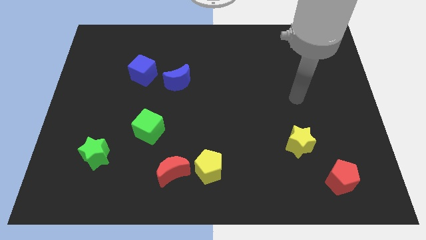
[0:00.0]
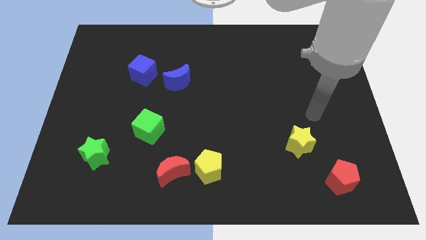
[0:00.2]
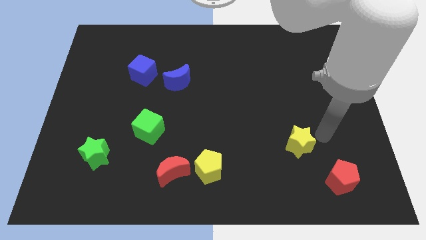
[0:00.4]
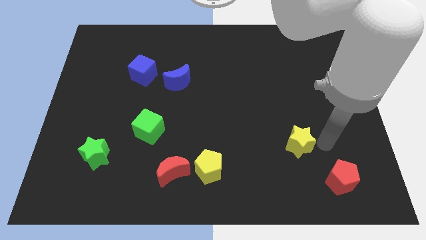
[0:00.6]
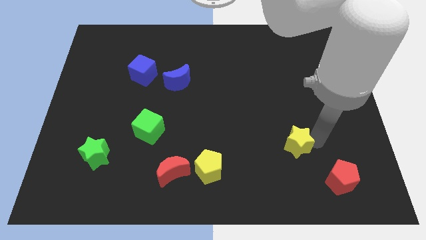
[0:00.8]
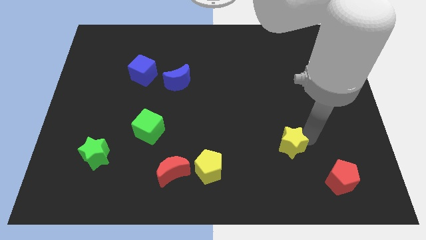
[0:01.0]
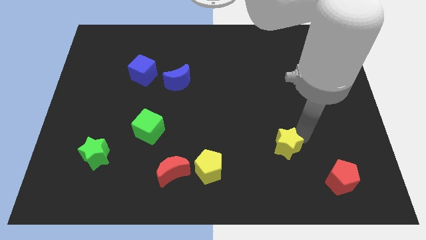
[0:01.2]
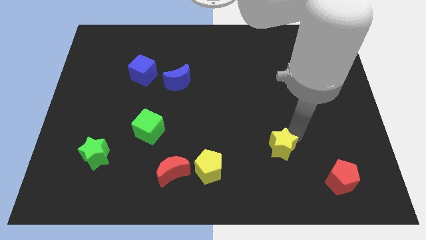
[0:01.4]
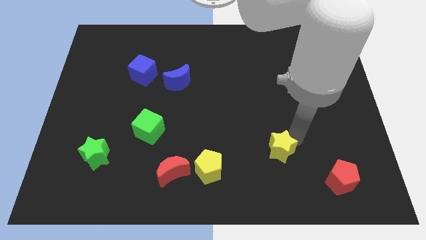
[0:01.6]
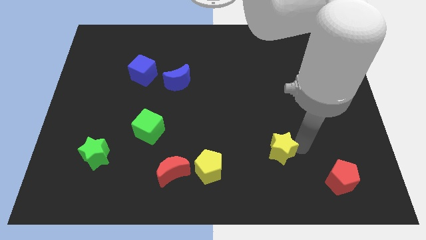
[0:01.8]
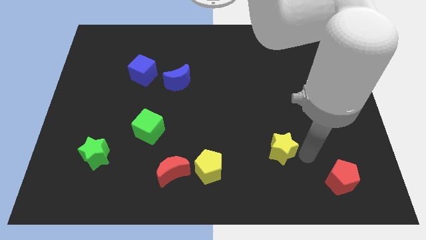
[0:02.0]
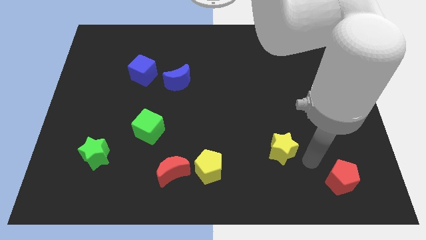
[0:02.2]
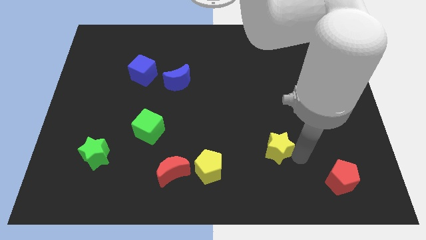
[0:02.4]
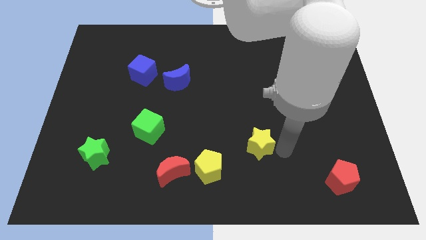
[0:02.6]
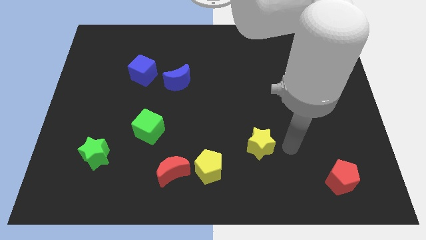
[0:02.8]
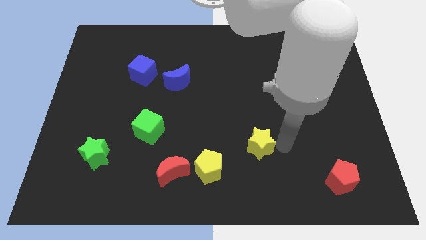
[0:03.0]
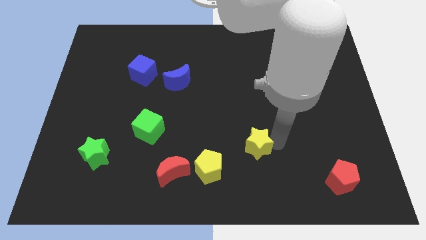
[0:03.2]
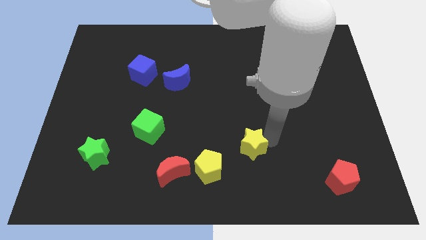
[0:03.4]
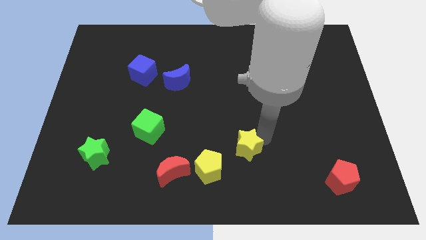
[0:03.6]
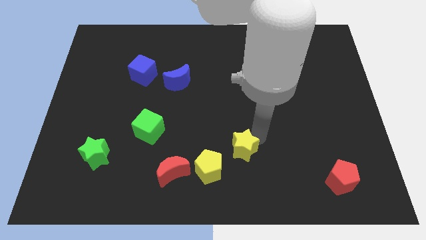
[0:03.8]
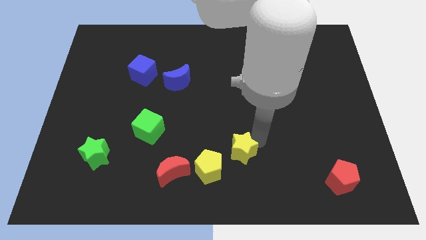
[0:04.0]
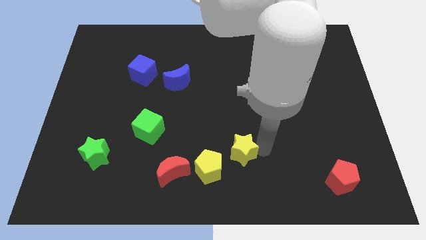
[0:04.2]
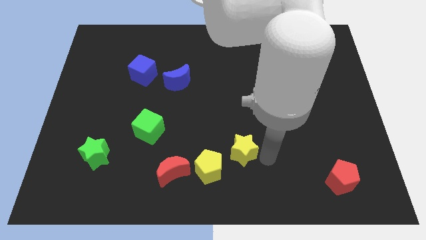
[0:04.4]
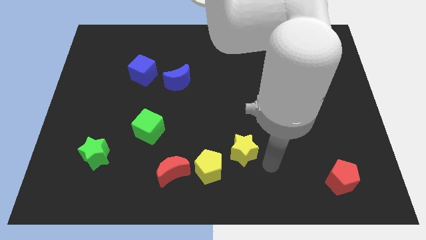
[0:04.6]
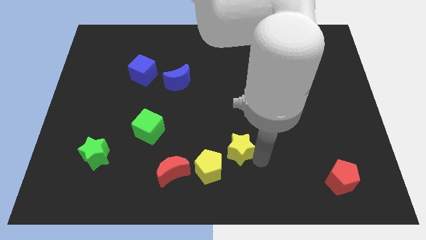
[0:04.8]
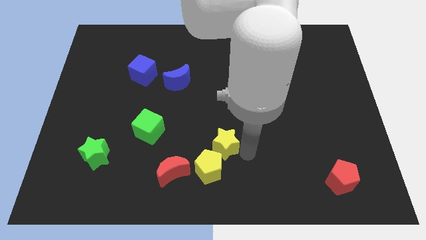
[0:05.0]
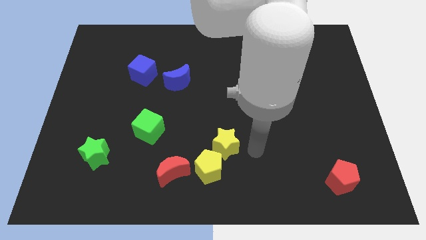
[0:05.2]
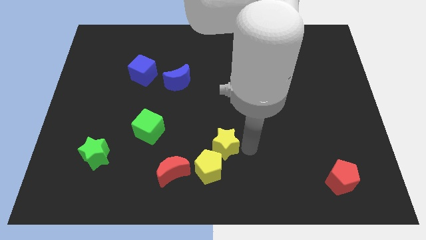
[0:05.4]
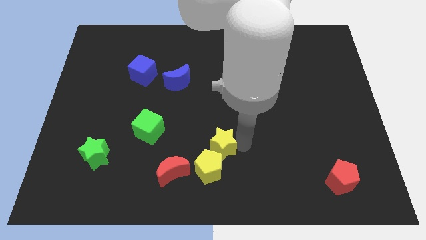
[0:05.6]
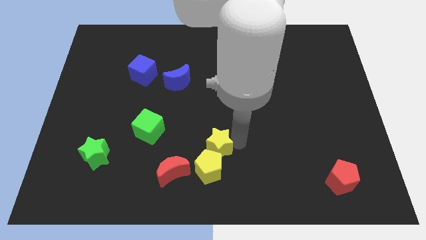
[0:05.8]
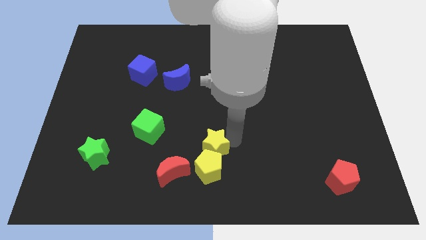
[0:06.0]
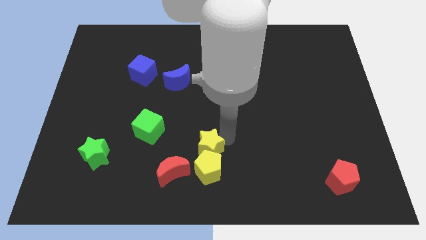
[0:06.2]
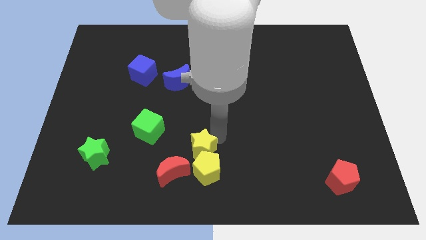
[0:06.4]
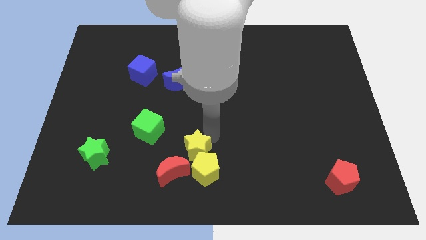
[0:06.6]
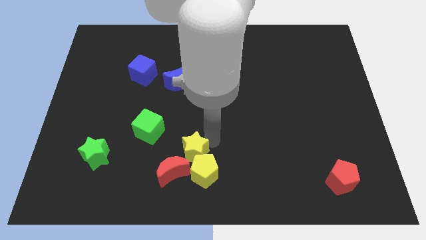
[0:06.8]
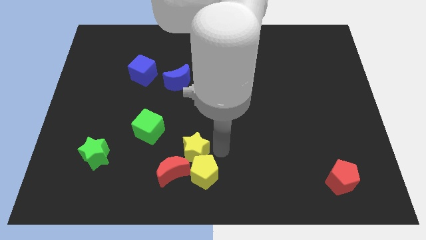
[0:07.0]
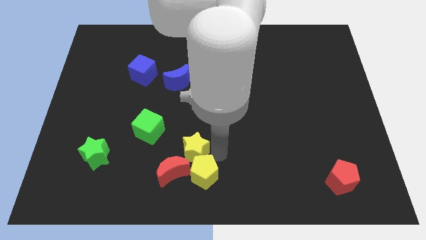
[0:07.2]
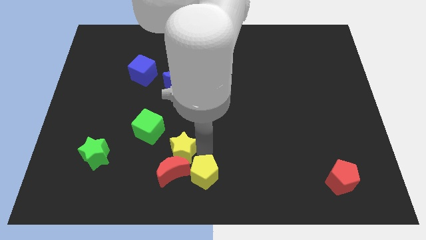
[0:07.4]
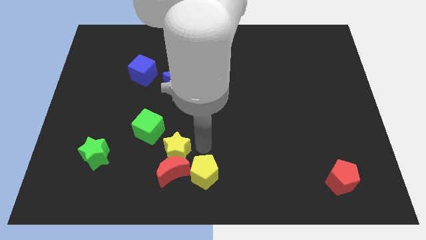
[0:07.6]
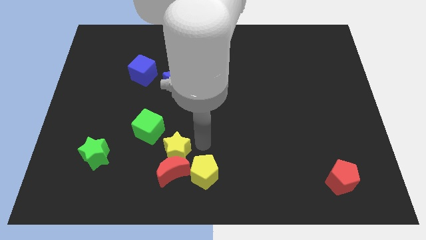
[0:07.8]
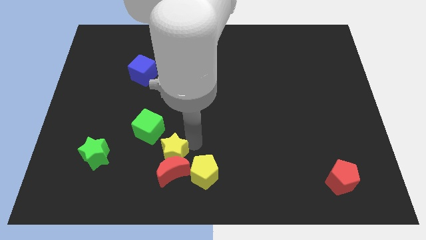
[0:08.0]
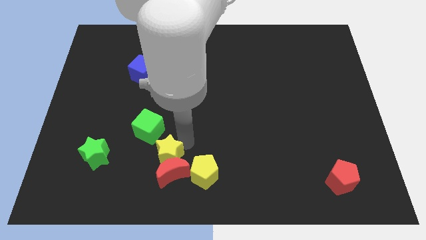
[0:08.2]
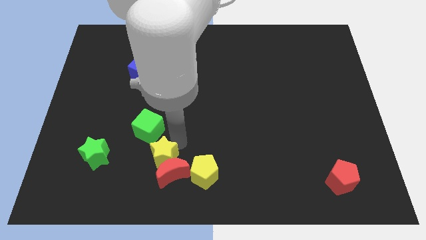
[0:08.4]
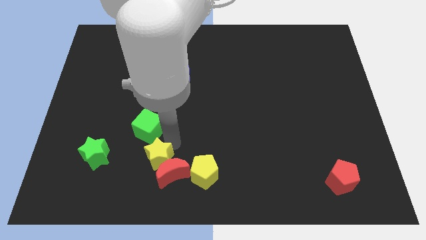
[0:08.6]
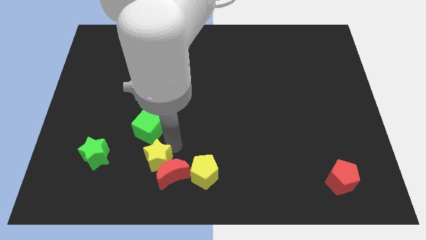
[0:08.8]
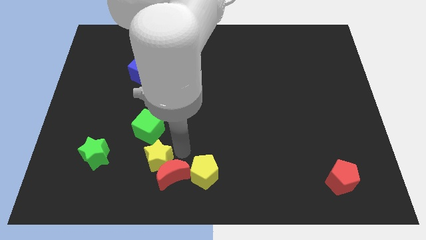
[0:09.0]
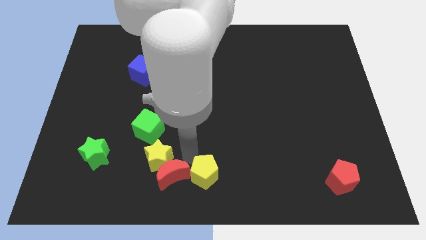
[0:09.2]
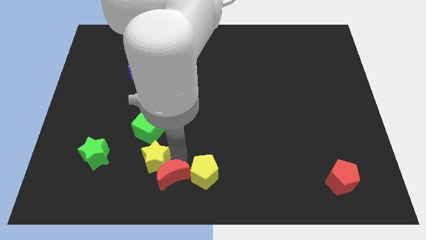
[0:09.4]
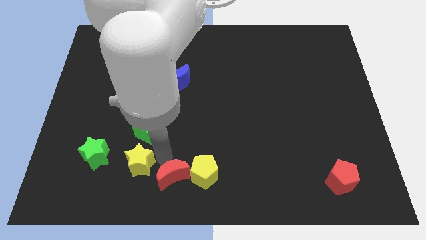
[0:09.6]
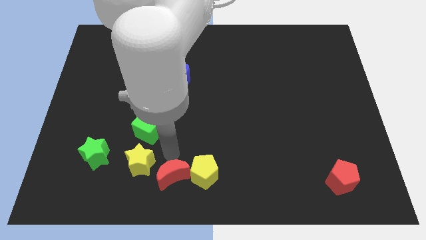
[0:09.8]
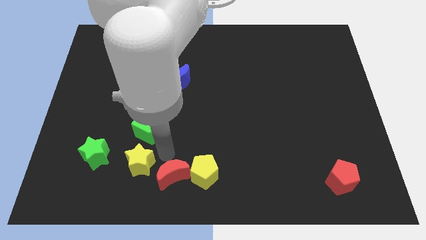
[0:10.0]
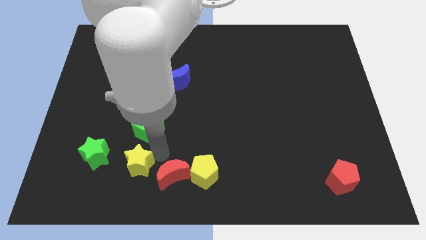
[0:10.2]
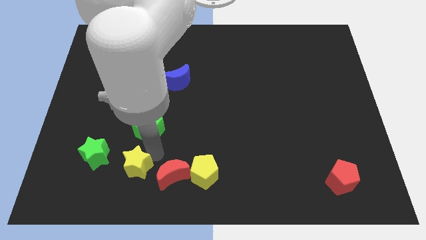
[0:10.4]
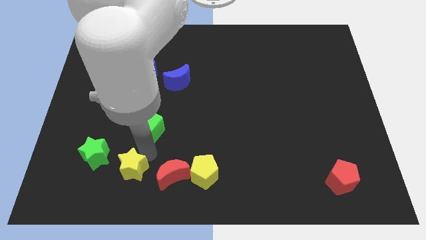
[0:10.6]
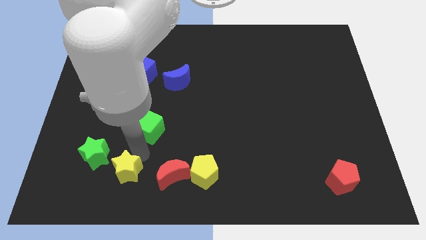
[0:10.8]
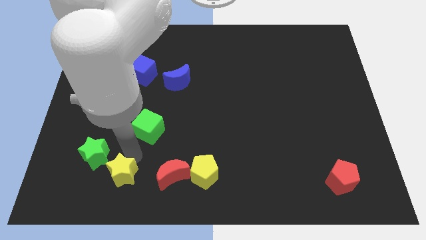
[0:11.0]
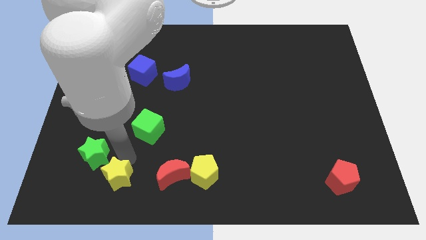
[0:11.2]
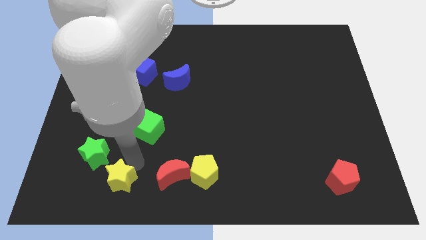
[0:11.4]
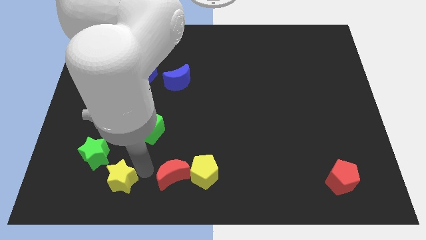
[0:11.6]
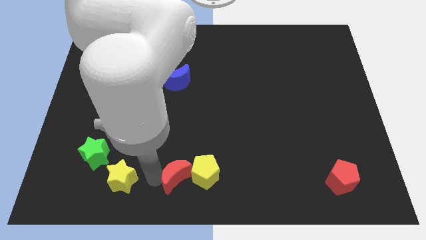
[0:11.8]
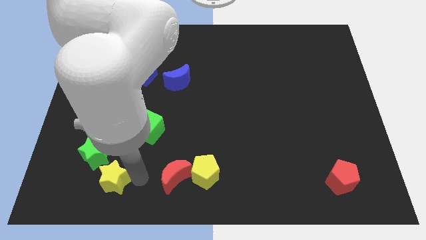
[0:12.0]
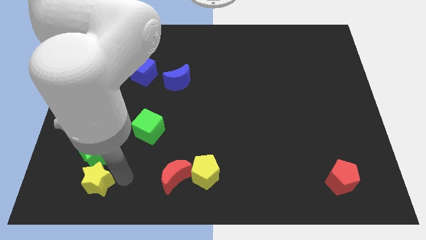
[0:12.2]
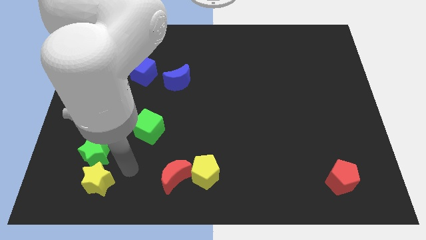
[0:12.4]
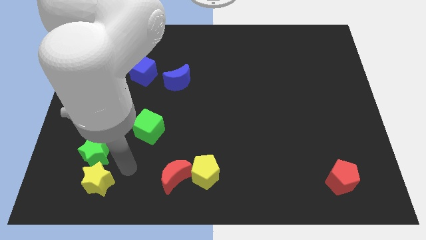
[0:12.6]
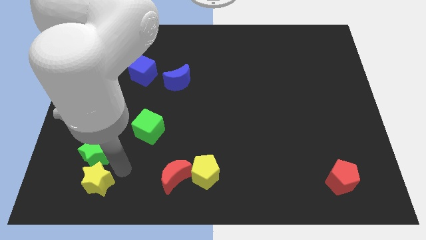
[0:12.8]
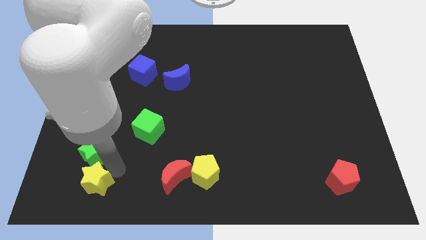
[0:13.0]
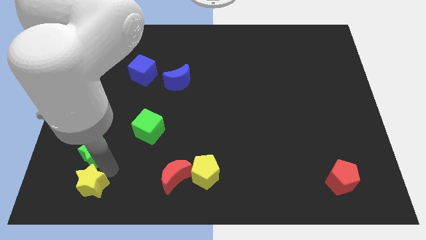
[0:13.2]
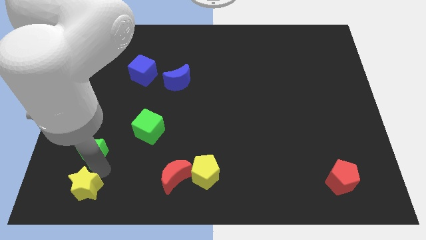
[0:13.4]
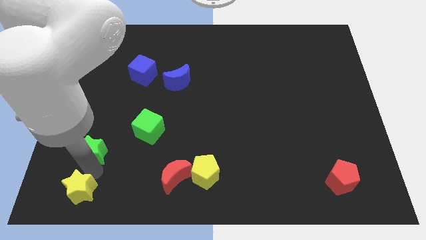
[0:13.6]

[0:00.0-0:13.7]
put the yellow star to the bottom left of the board
